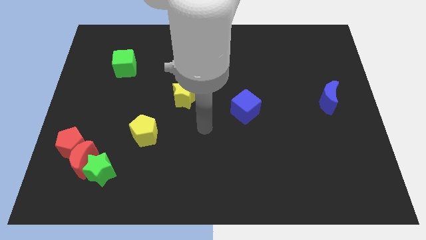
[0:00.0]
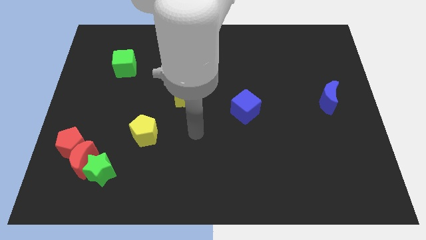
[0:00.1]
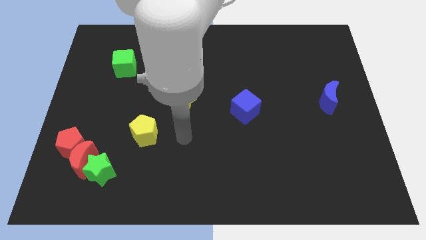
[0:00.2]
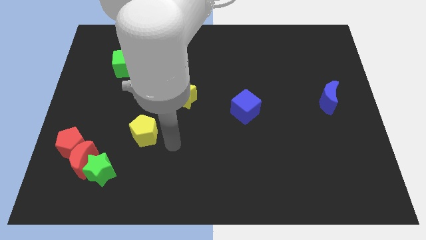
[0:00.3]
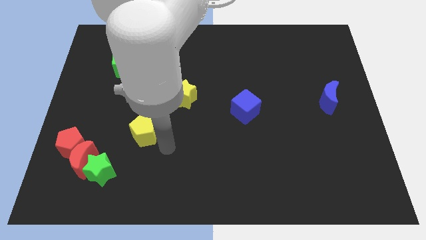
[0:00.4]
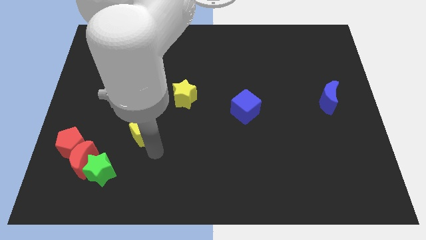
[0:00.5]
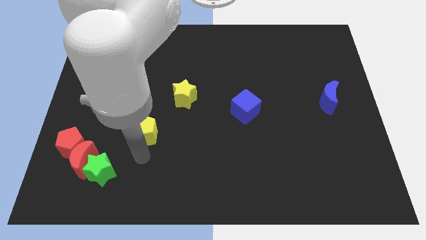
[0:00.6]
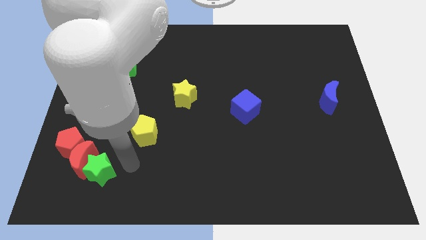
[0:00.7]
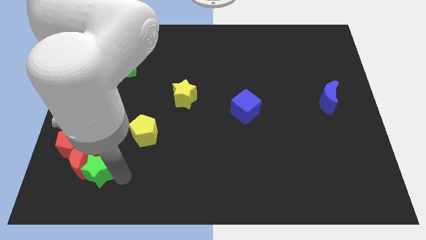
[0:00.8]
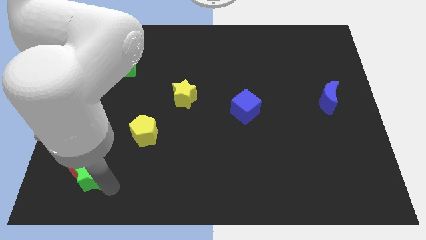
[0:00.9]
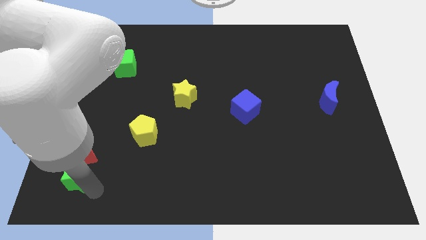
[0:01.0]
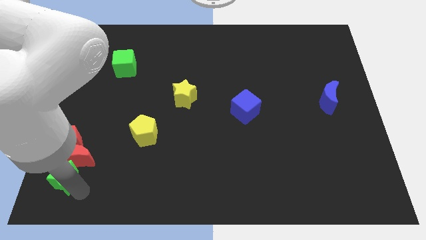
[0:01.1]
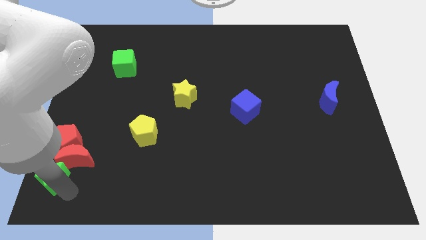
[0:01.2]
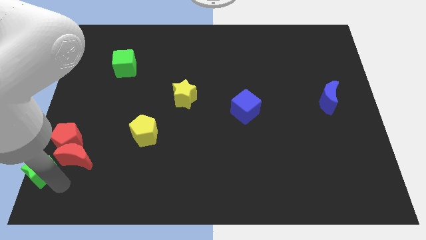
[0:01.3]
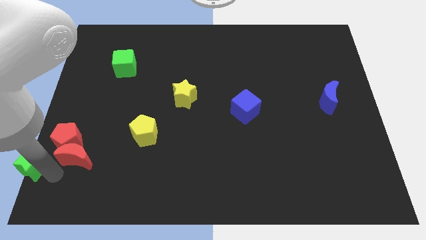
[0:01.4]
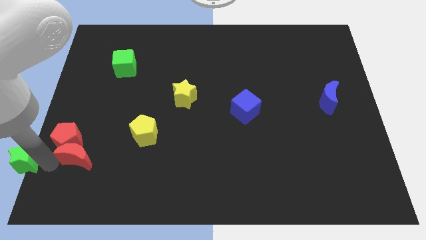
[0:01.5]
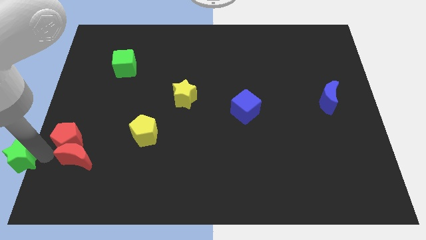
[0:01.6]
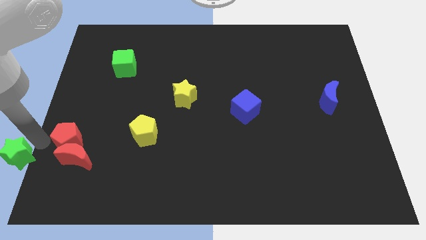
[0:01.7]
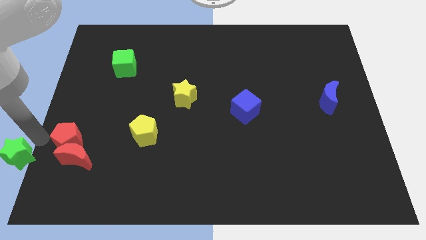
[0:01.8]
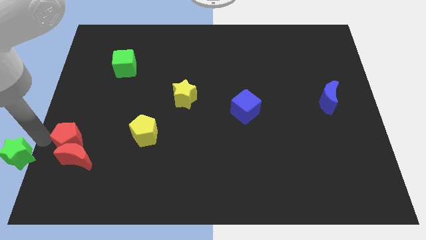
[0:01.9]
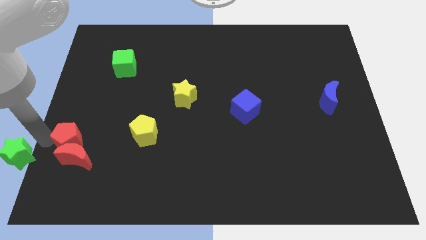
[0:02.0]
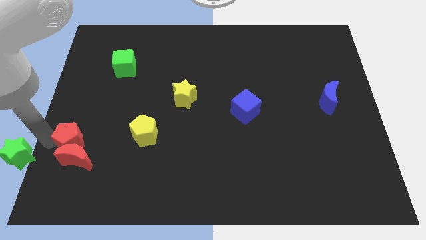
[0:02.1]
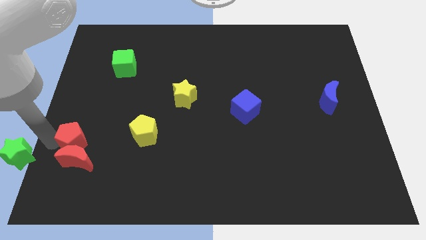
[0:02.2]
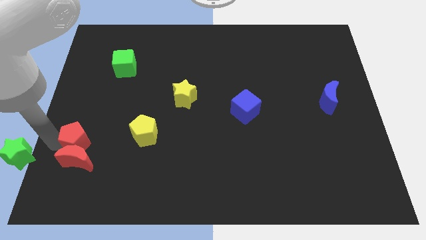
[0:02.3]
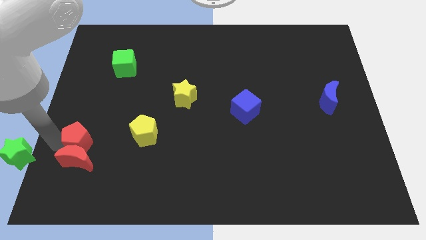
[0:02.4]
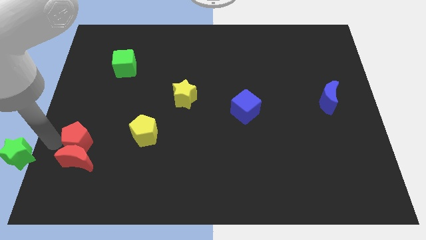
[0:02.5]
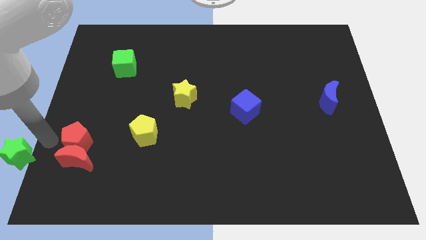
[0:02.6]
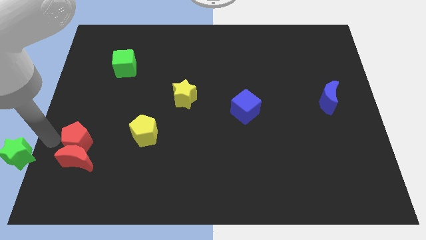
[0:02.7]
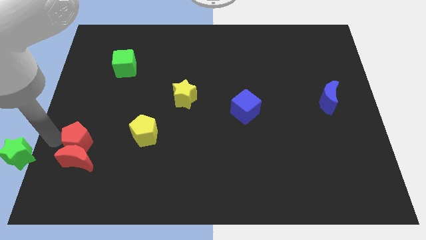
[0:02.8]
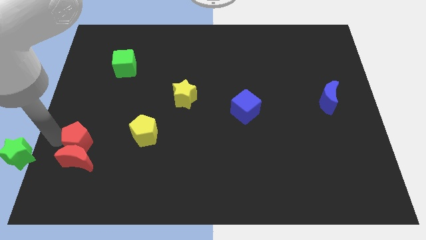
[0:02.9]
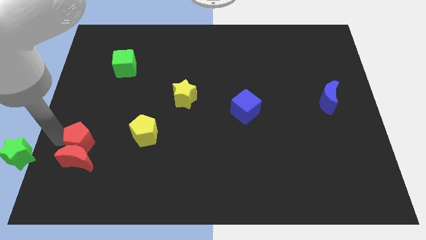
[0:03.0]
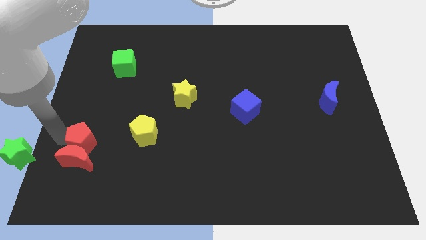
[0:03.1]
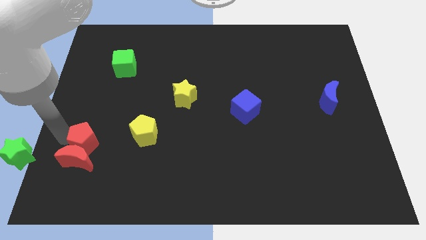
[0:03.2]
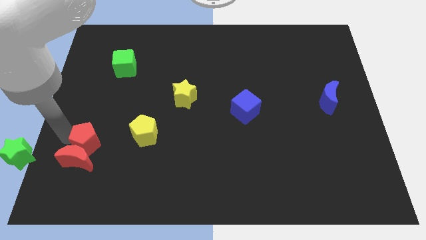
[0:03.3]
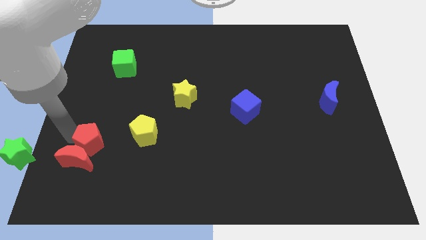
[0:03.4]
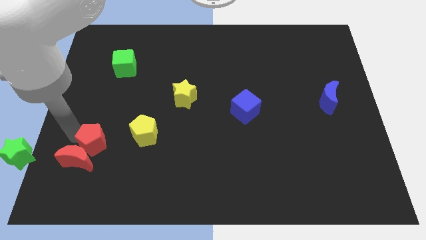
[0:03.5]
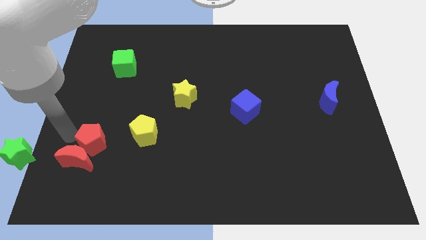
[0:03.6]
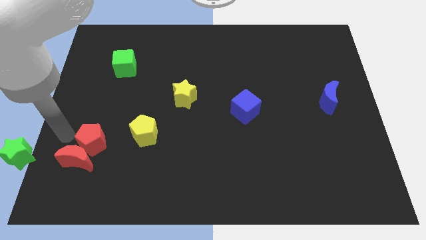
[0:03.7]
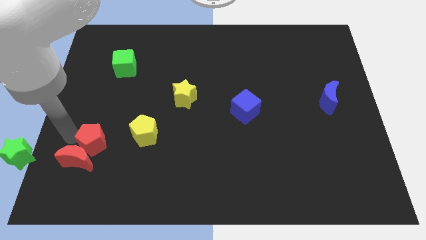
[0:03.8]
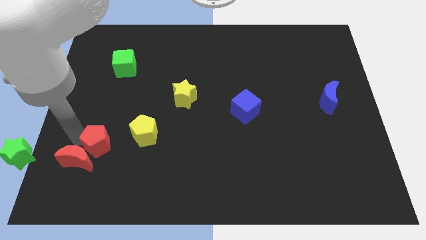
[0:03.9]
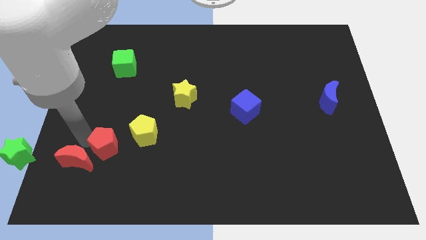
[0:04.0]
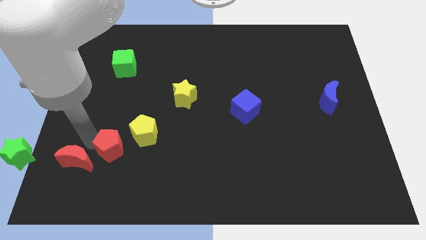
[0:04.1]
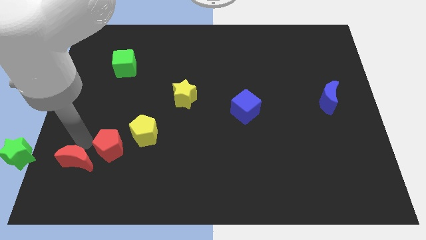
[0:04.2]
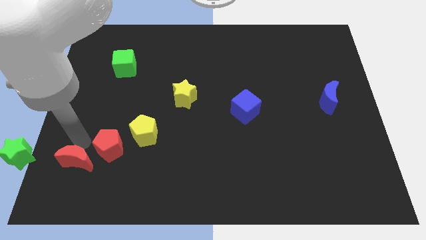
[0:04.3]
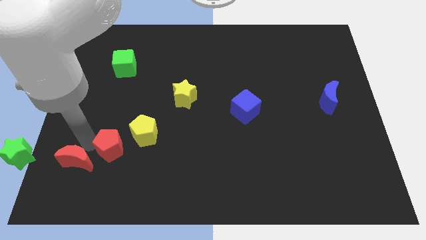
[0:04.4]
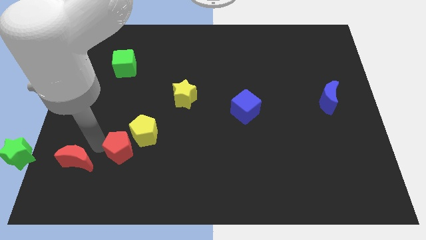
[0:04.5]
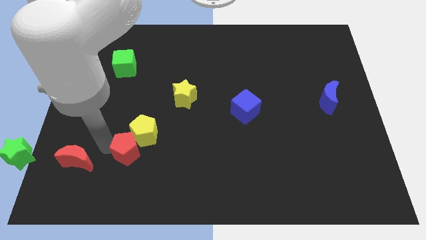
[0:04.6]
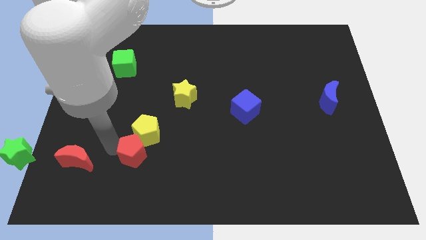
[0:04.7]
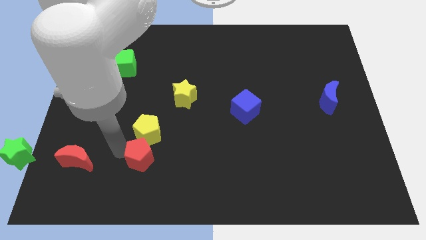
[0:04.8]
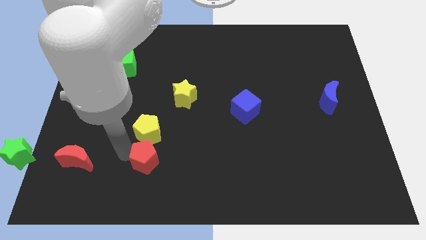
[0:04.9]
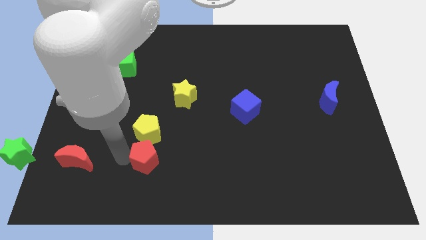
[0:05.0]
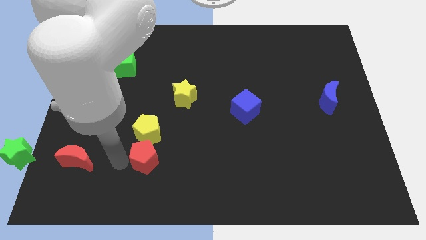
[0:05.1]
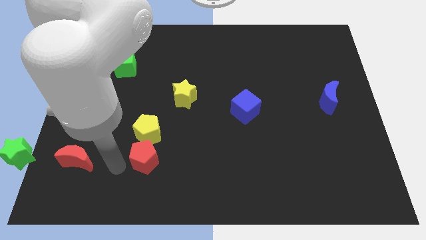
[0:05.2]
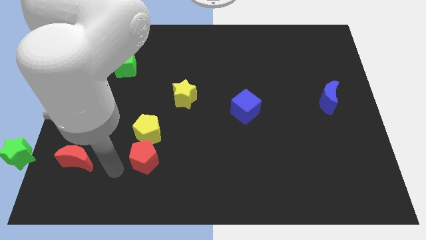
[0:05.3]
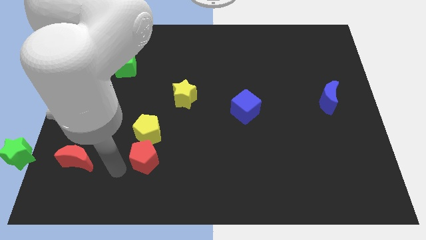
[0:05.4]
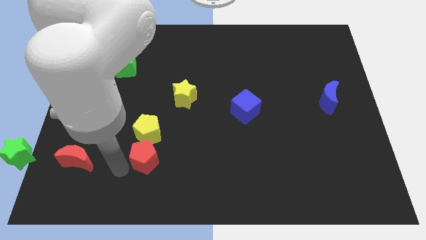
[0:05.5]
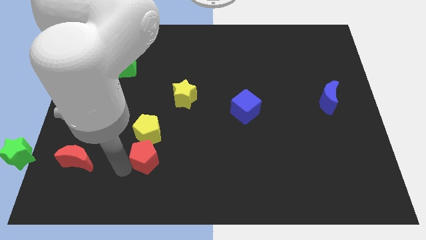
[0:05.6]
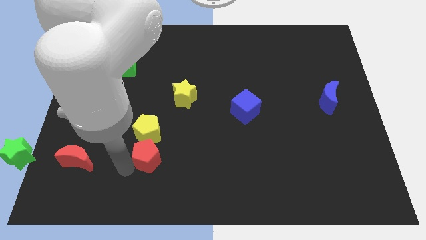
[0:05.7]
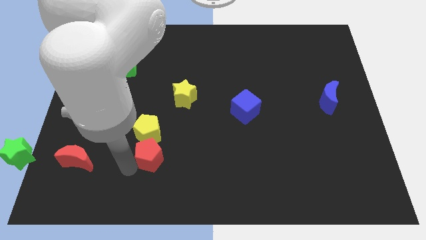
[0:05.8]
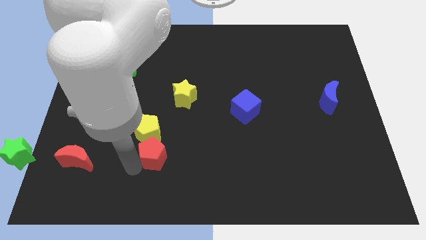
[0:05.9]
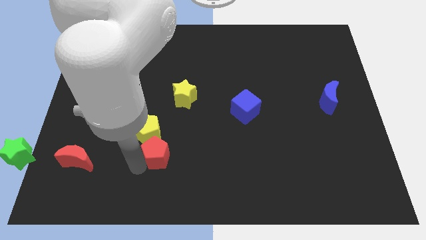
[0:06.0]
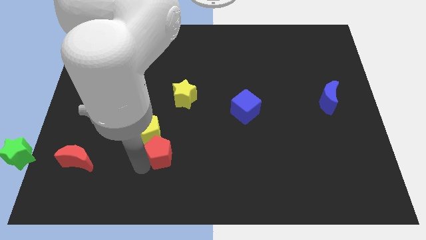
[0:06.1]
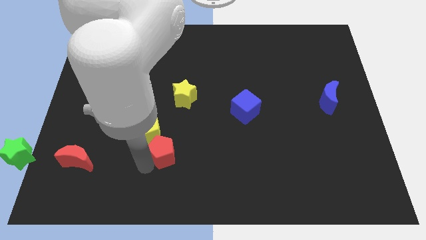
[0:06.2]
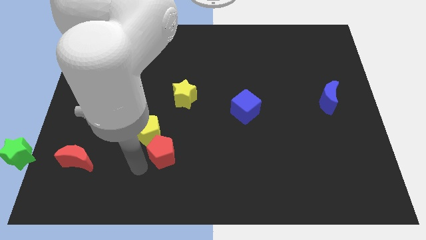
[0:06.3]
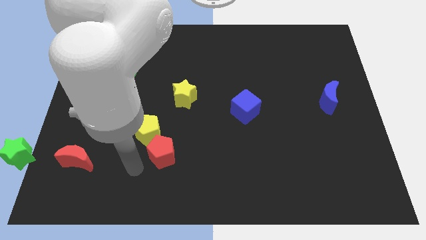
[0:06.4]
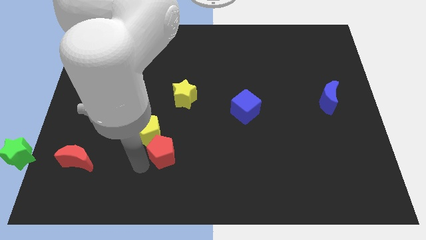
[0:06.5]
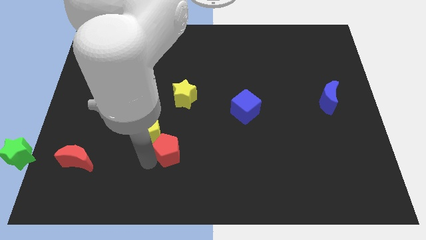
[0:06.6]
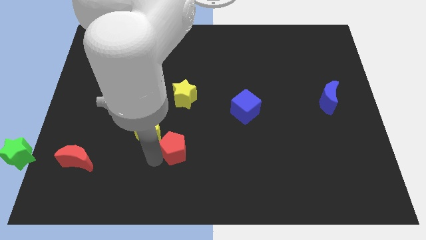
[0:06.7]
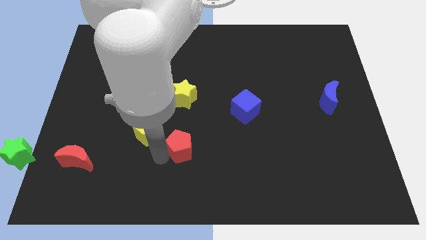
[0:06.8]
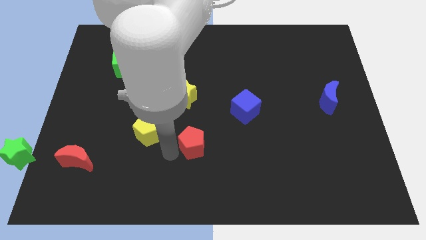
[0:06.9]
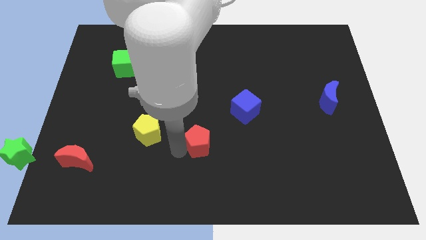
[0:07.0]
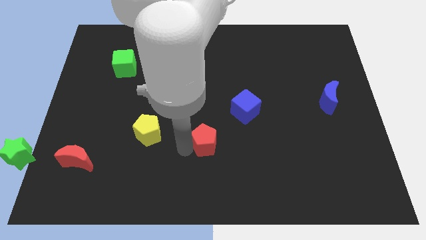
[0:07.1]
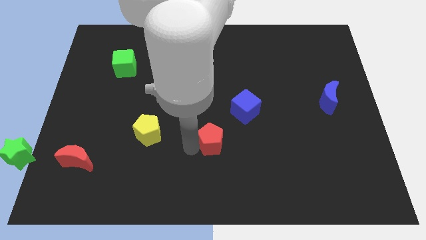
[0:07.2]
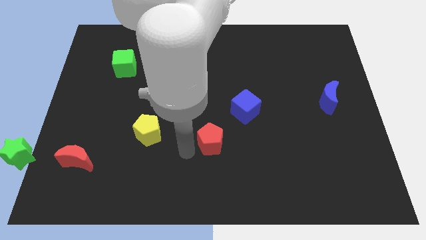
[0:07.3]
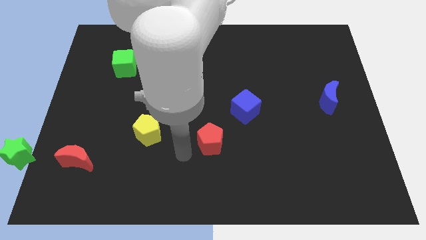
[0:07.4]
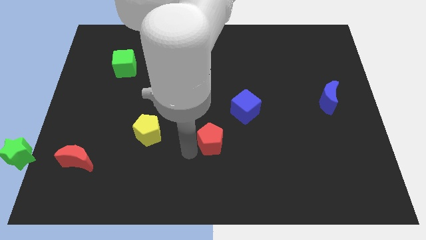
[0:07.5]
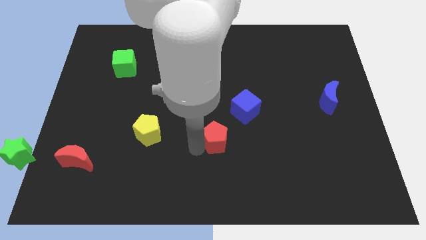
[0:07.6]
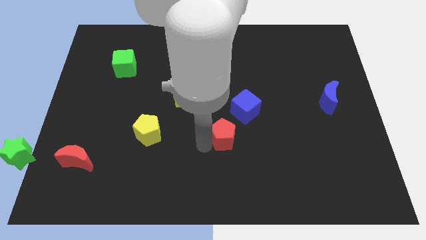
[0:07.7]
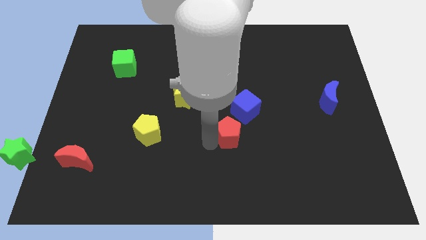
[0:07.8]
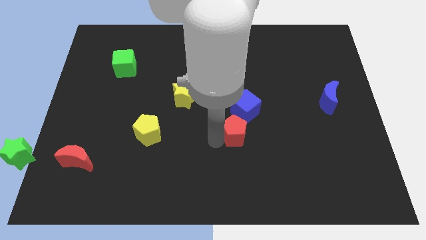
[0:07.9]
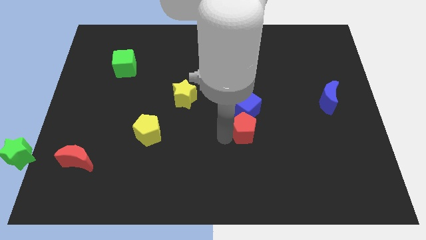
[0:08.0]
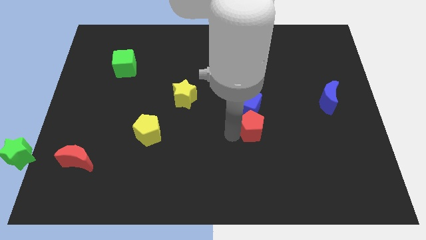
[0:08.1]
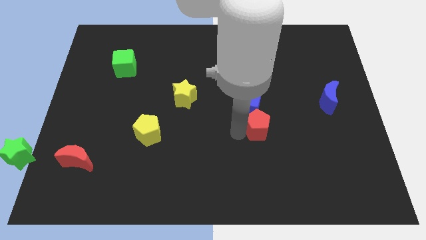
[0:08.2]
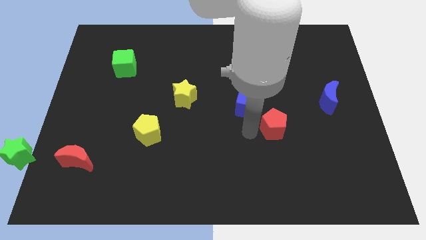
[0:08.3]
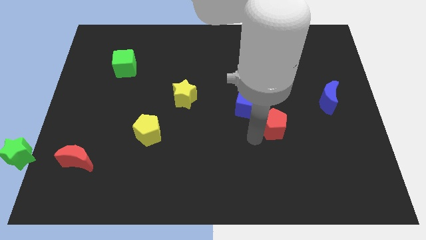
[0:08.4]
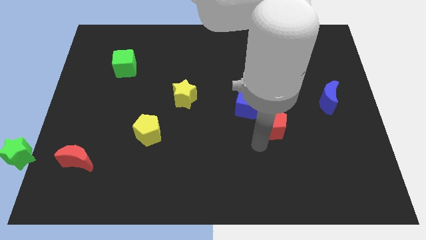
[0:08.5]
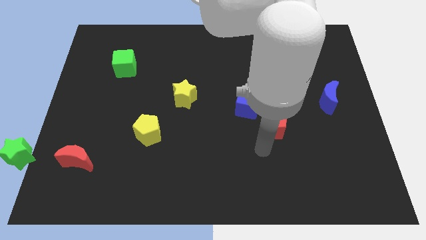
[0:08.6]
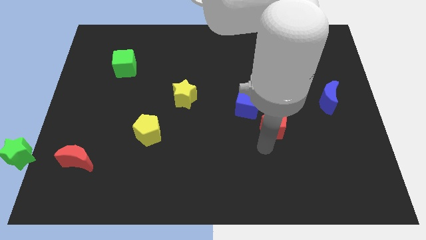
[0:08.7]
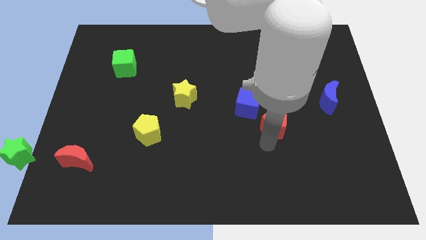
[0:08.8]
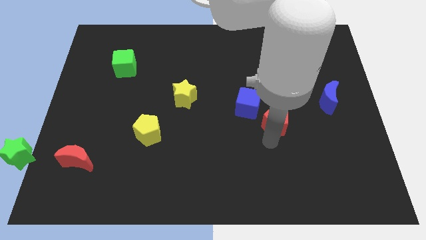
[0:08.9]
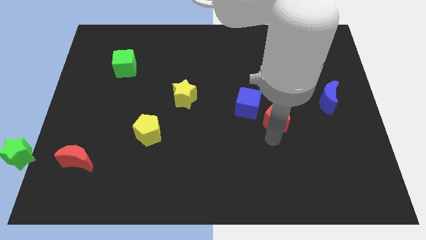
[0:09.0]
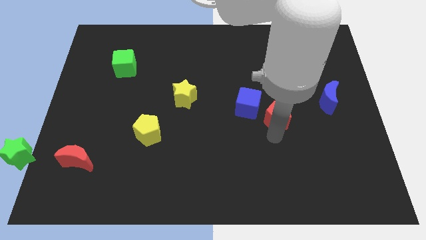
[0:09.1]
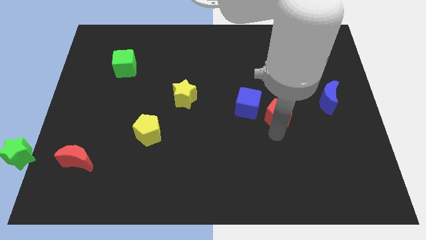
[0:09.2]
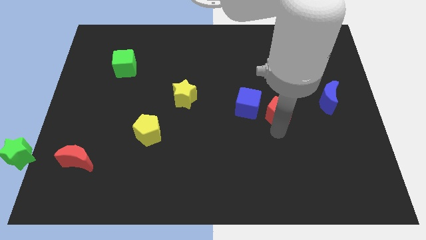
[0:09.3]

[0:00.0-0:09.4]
move the red pentagon to the left of the blue moon
